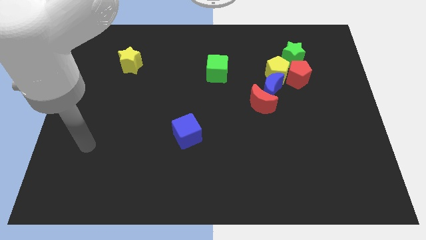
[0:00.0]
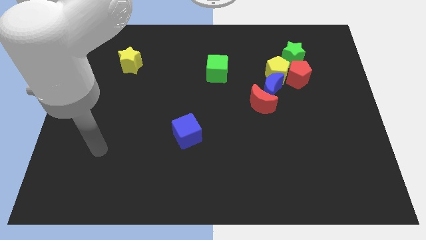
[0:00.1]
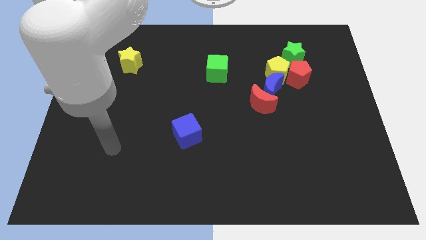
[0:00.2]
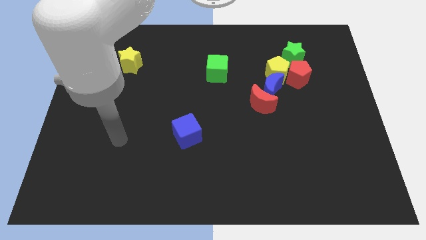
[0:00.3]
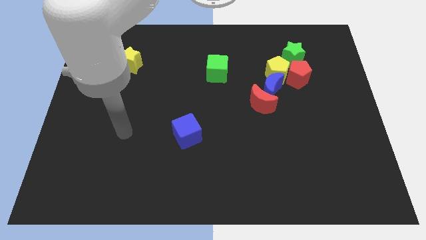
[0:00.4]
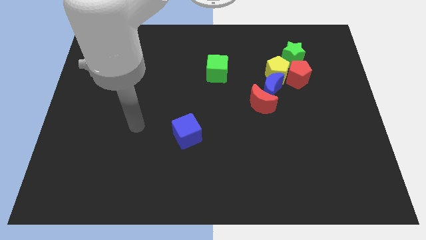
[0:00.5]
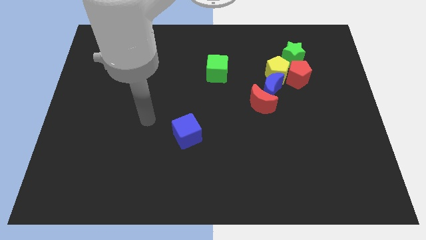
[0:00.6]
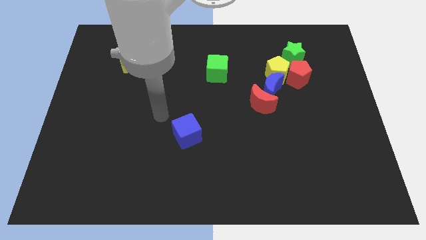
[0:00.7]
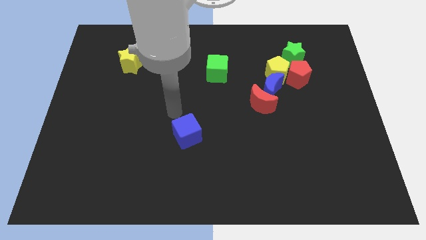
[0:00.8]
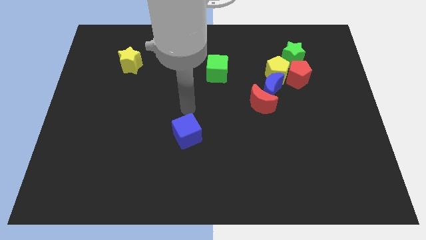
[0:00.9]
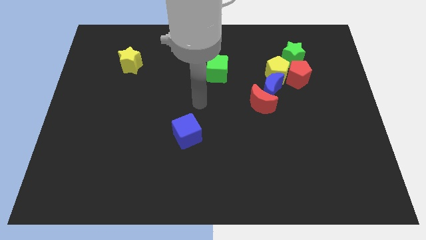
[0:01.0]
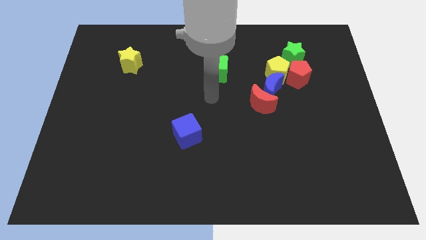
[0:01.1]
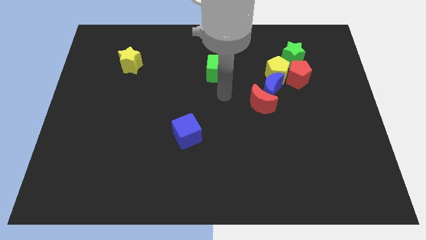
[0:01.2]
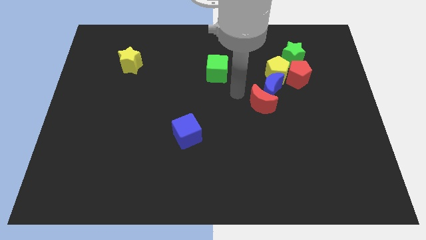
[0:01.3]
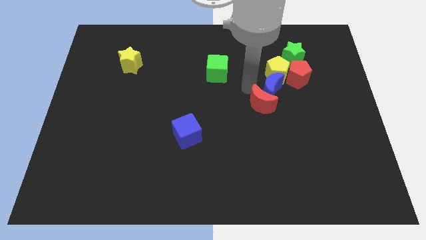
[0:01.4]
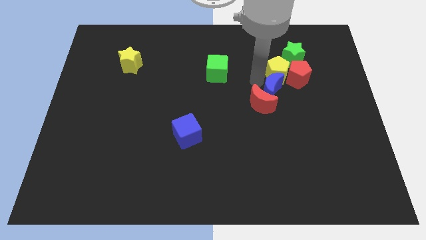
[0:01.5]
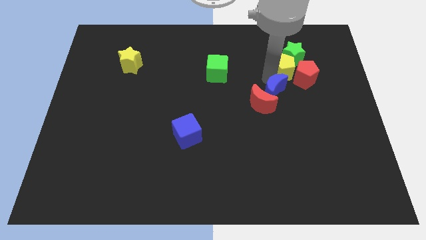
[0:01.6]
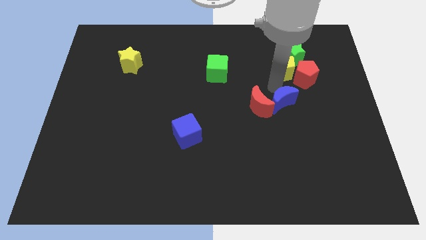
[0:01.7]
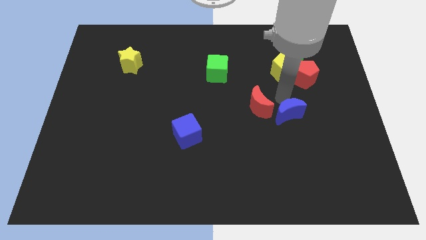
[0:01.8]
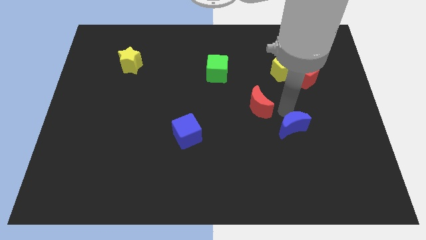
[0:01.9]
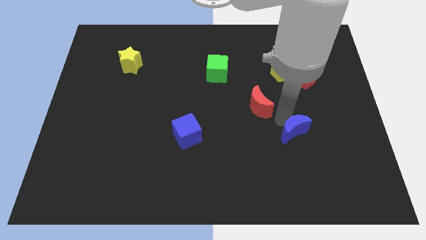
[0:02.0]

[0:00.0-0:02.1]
move the red moon away from the blue moon

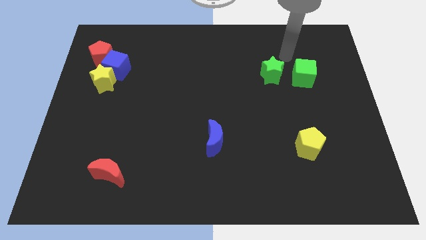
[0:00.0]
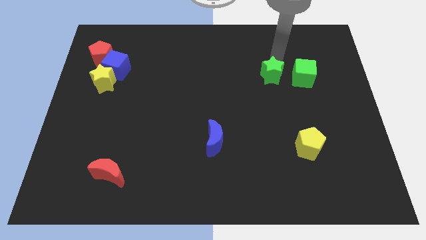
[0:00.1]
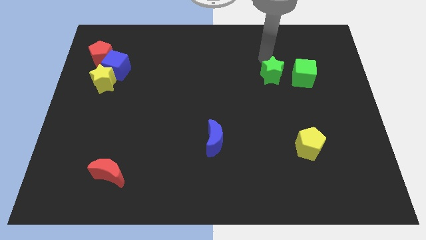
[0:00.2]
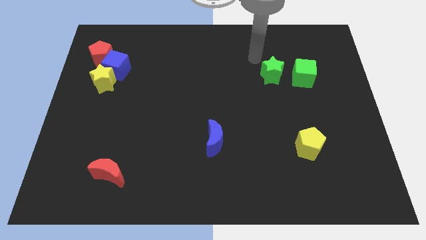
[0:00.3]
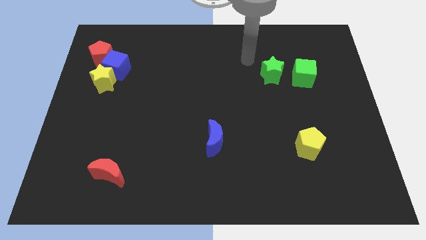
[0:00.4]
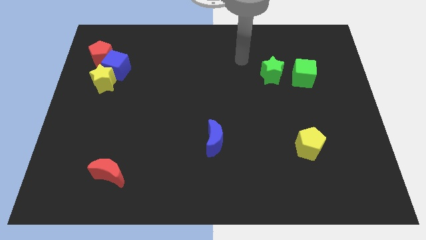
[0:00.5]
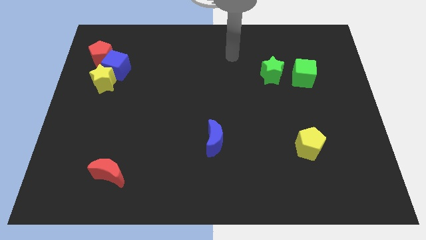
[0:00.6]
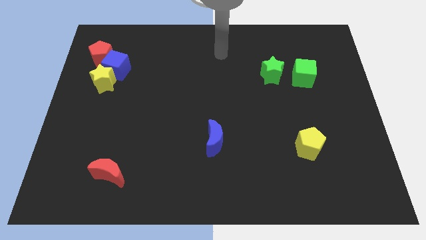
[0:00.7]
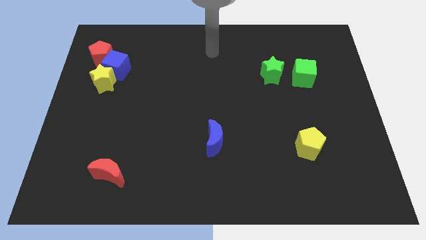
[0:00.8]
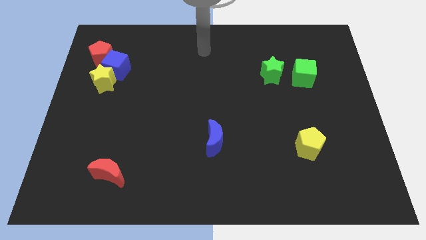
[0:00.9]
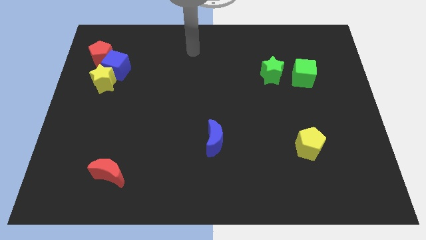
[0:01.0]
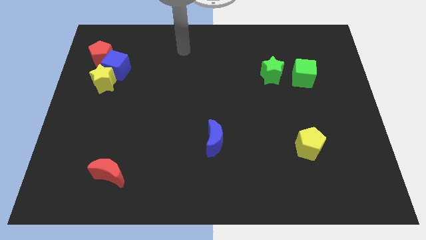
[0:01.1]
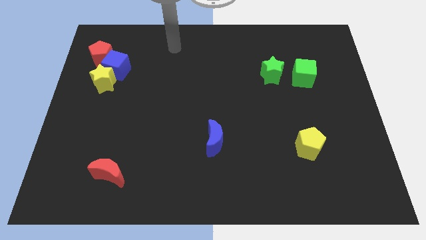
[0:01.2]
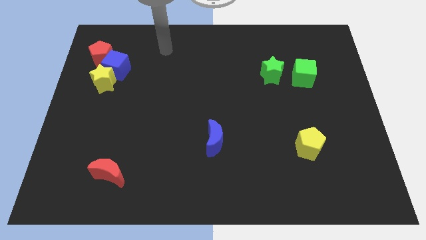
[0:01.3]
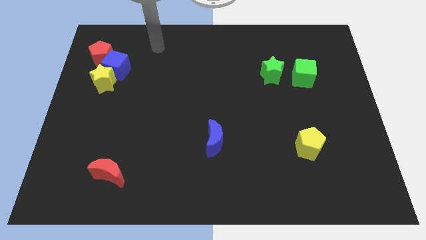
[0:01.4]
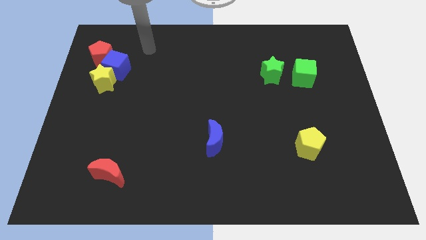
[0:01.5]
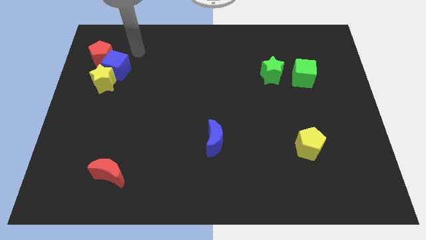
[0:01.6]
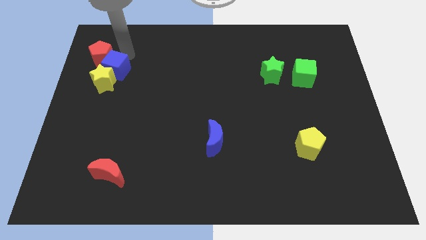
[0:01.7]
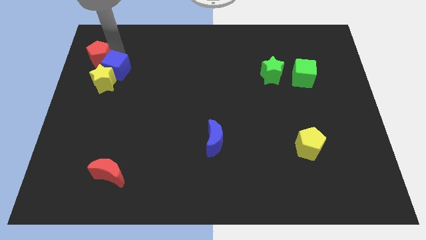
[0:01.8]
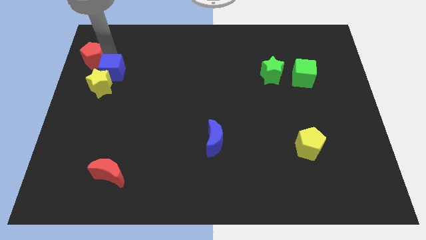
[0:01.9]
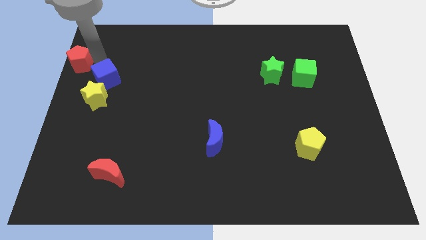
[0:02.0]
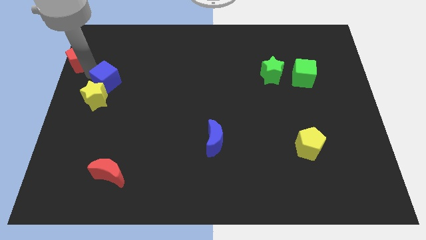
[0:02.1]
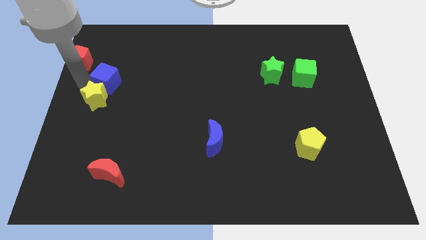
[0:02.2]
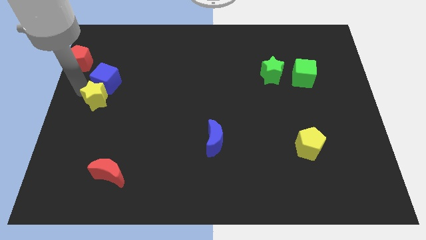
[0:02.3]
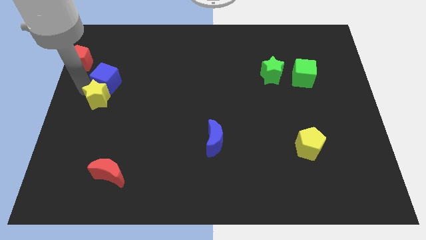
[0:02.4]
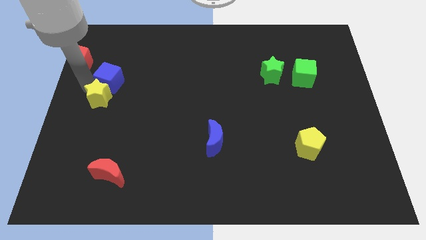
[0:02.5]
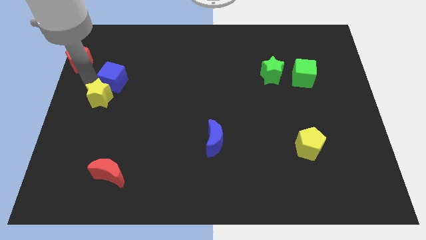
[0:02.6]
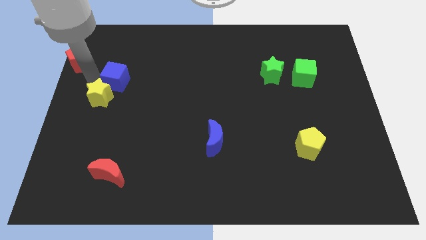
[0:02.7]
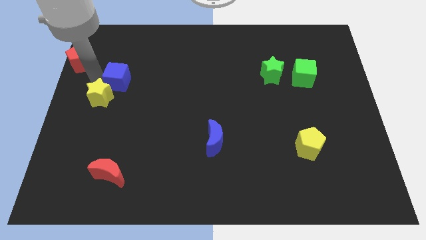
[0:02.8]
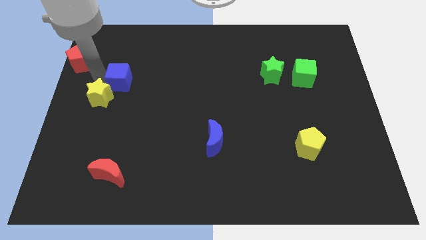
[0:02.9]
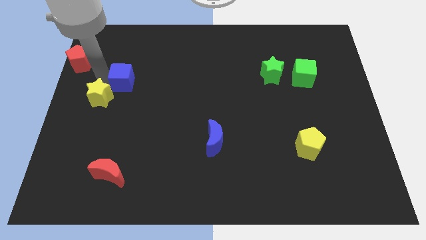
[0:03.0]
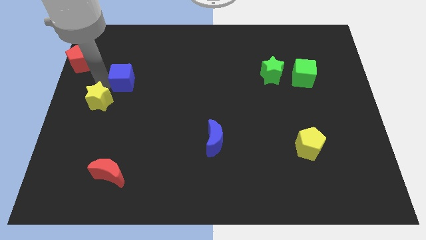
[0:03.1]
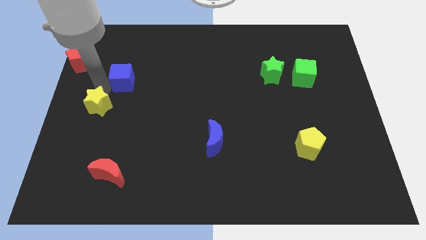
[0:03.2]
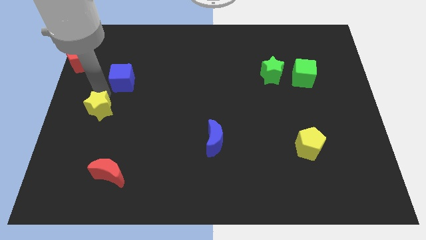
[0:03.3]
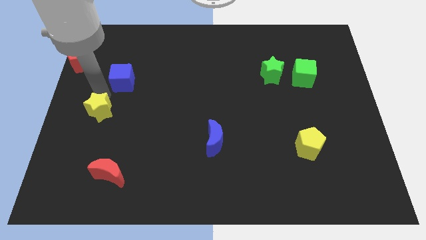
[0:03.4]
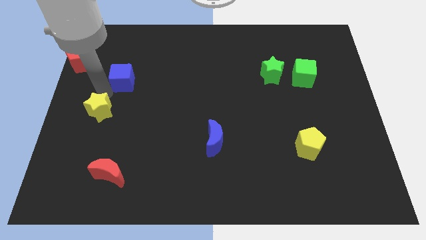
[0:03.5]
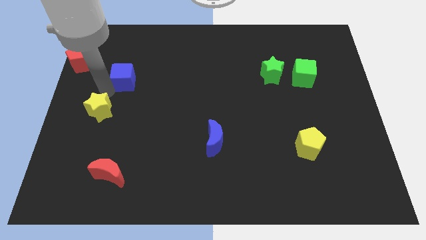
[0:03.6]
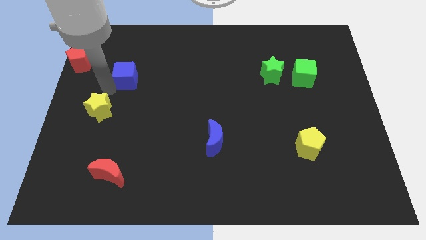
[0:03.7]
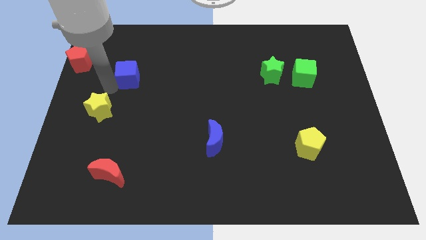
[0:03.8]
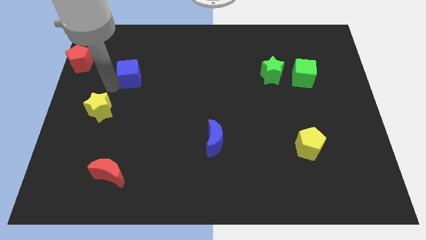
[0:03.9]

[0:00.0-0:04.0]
separate the blue cube from the yellow star and red pentagon

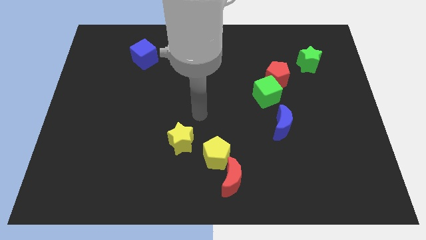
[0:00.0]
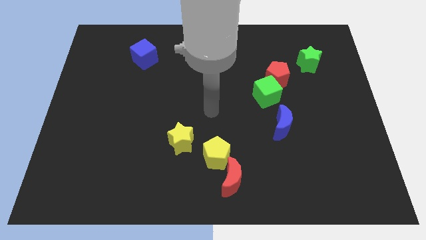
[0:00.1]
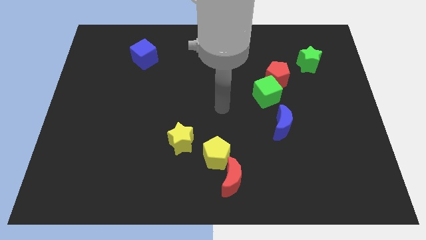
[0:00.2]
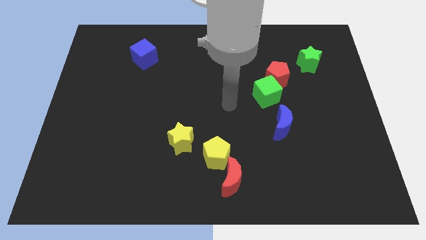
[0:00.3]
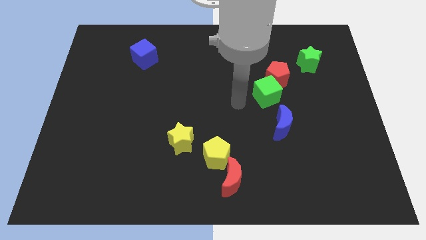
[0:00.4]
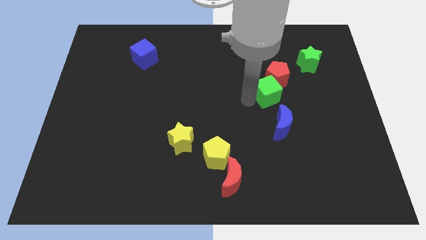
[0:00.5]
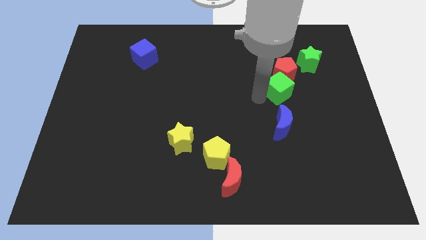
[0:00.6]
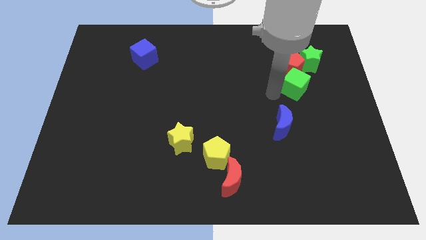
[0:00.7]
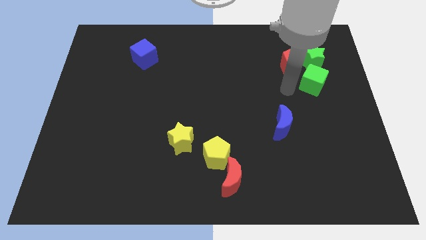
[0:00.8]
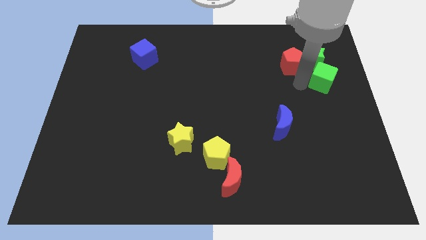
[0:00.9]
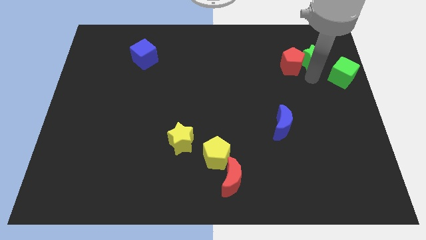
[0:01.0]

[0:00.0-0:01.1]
pull the red pentagon apart from the green cube

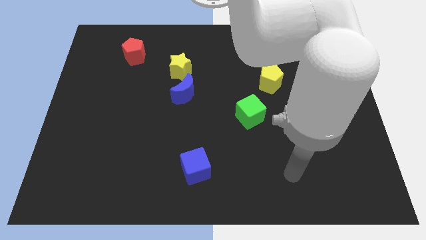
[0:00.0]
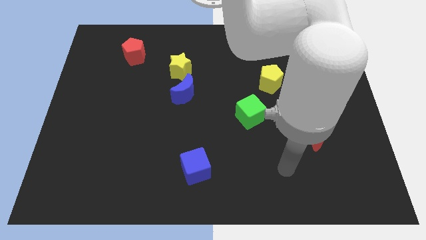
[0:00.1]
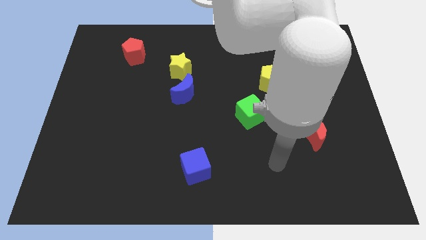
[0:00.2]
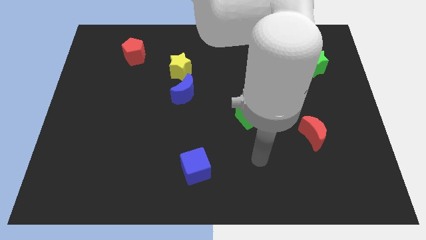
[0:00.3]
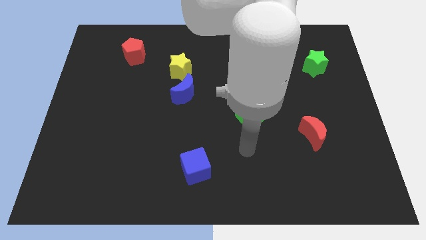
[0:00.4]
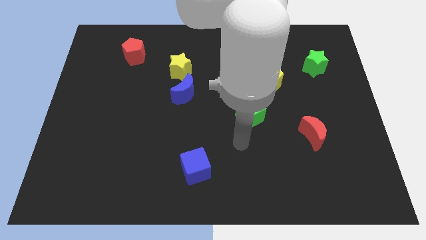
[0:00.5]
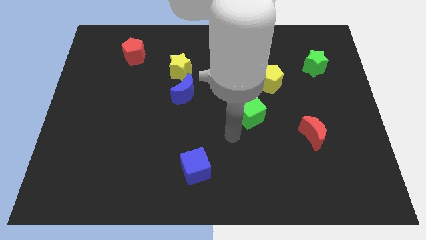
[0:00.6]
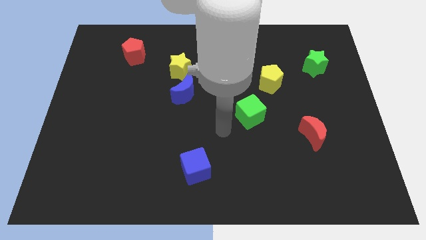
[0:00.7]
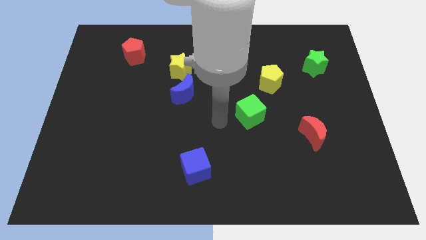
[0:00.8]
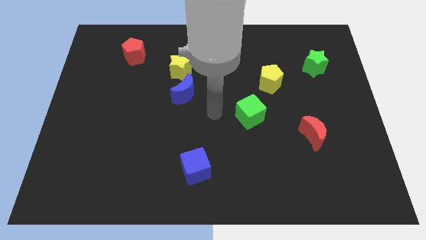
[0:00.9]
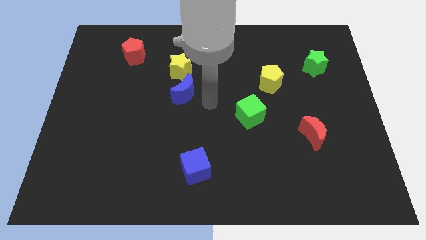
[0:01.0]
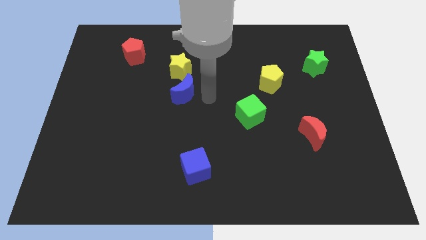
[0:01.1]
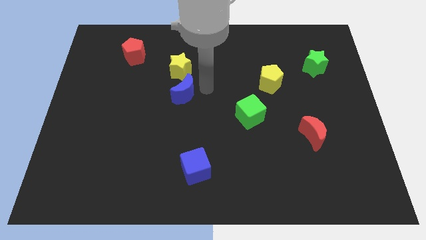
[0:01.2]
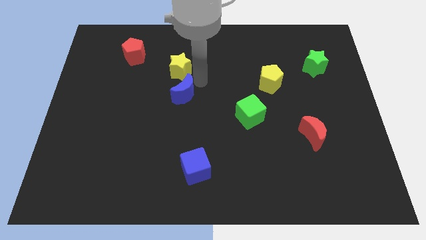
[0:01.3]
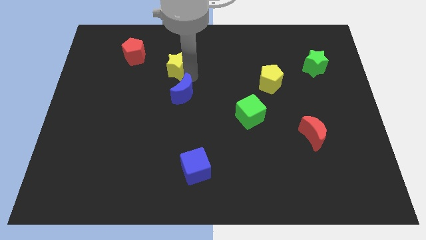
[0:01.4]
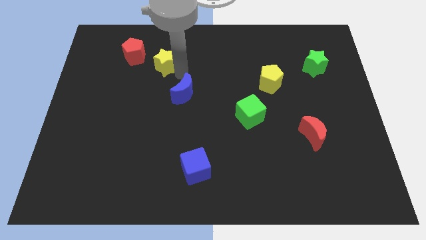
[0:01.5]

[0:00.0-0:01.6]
separate the blue moon from the yellow star

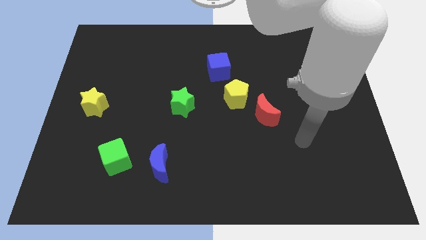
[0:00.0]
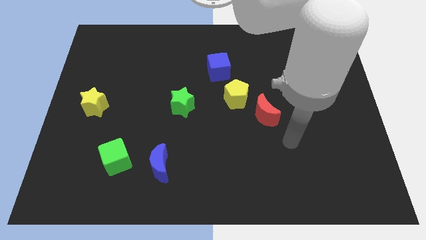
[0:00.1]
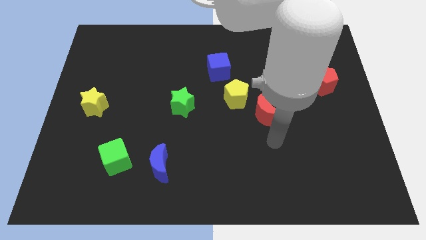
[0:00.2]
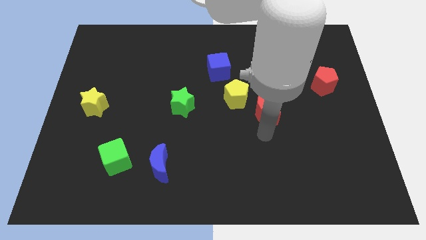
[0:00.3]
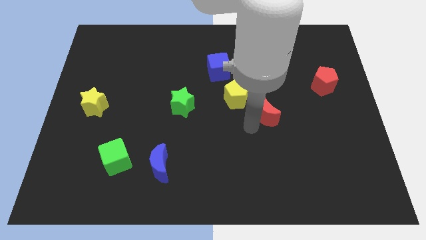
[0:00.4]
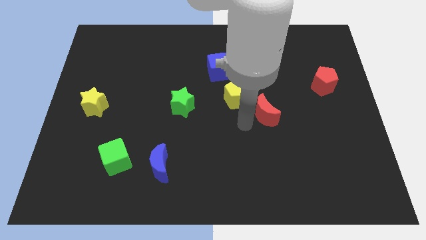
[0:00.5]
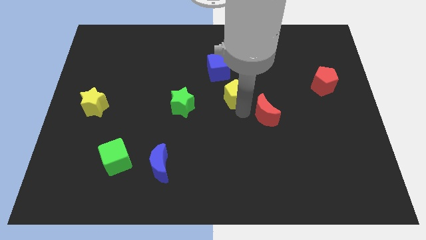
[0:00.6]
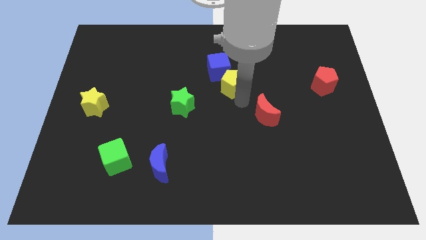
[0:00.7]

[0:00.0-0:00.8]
separate the red moon from the yellow pentagon
